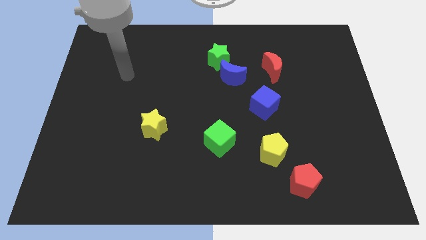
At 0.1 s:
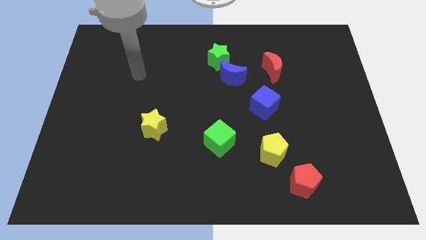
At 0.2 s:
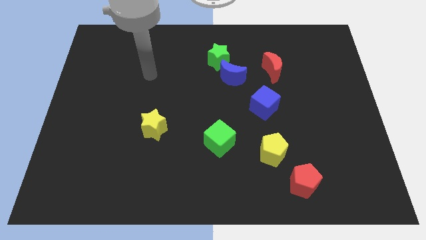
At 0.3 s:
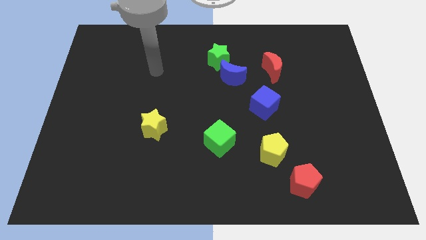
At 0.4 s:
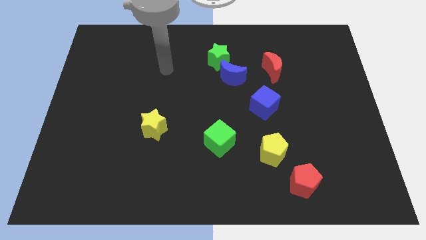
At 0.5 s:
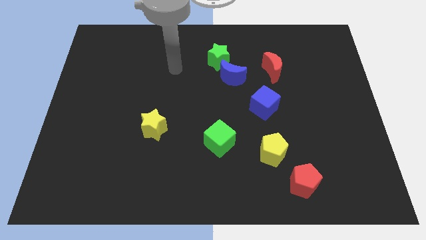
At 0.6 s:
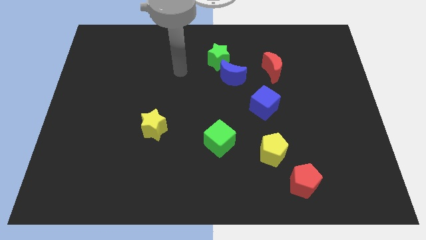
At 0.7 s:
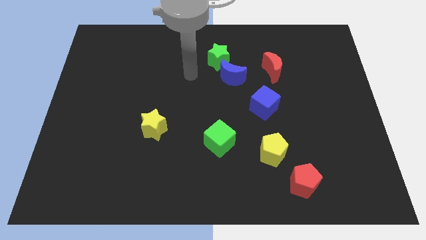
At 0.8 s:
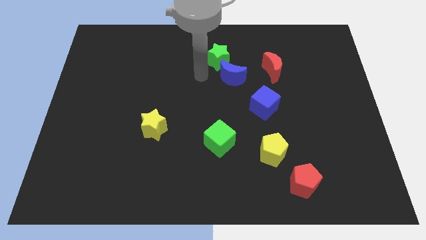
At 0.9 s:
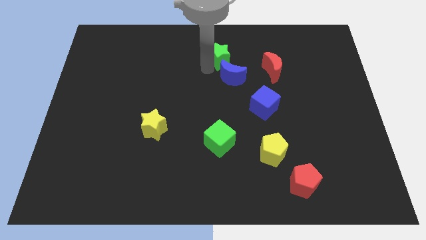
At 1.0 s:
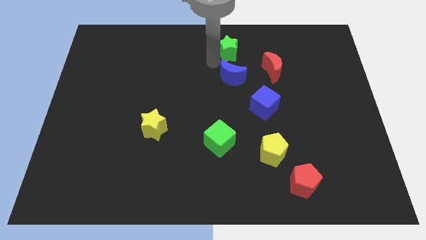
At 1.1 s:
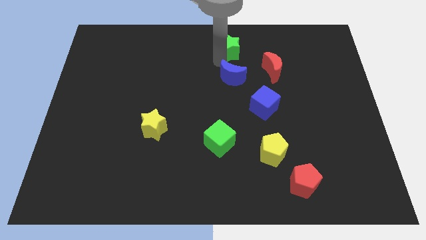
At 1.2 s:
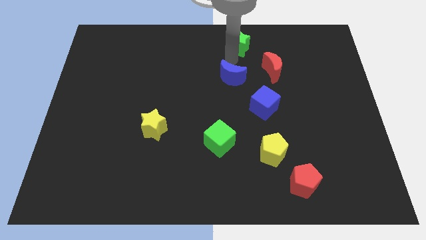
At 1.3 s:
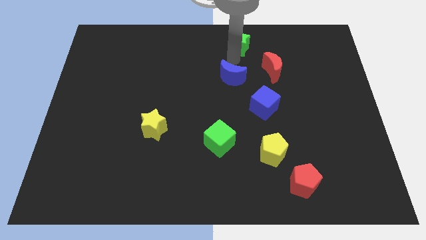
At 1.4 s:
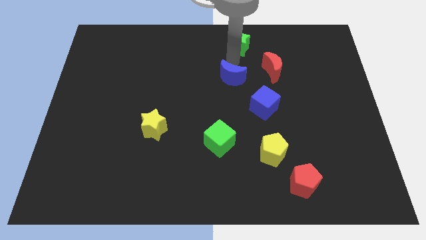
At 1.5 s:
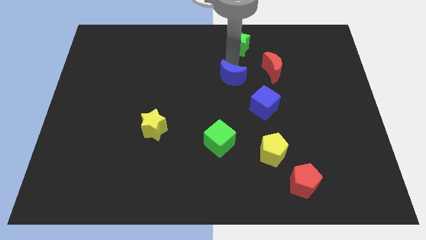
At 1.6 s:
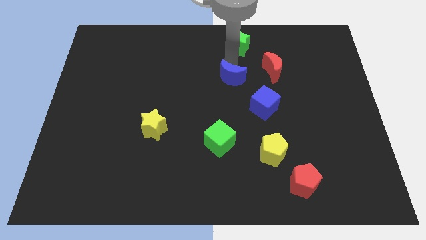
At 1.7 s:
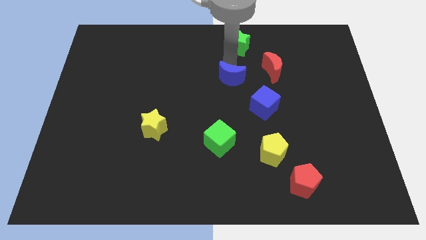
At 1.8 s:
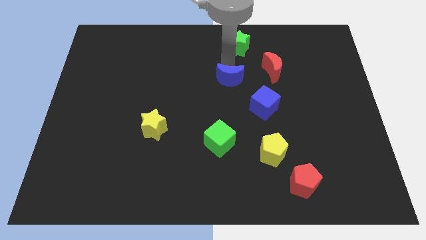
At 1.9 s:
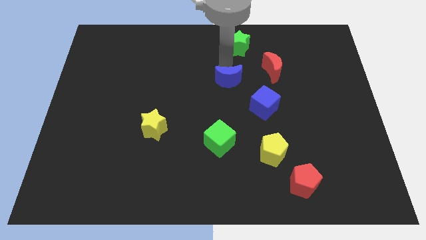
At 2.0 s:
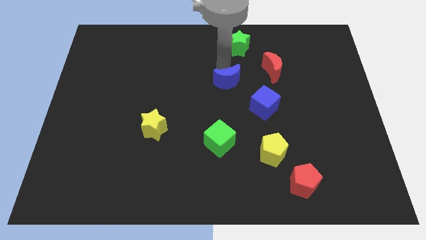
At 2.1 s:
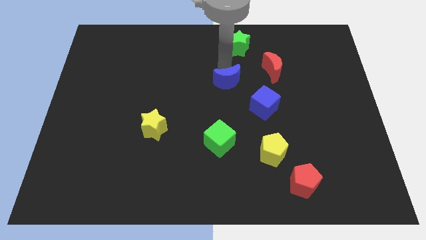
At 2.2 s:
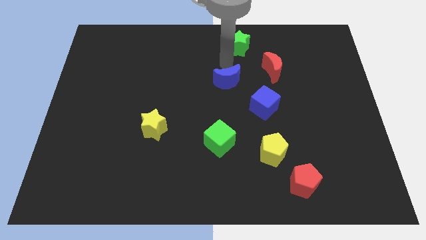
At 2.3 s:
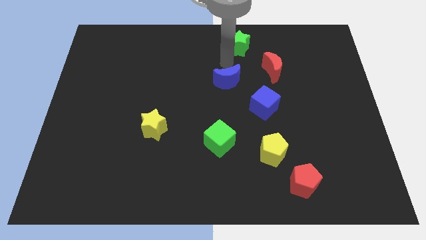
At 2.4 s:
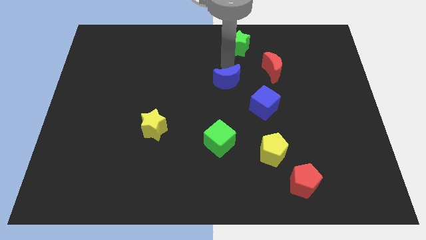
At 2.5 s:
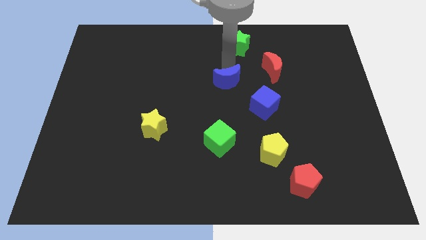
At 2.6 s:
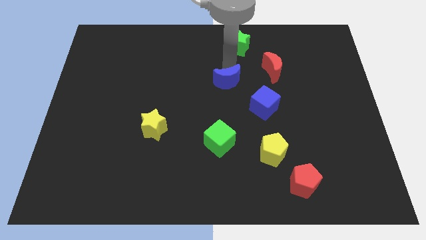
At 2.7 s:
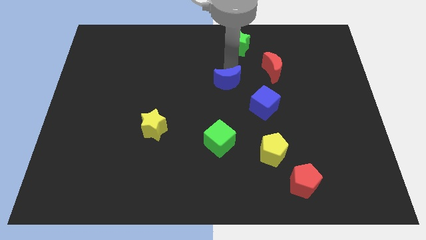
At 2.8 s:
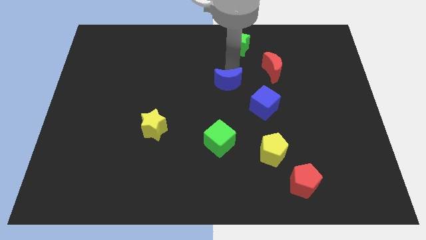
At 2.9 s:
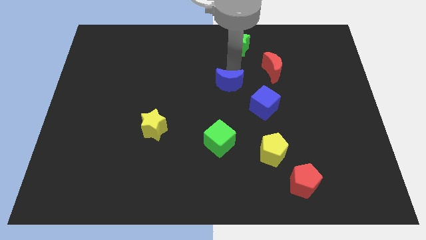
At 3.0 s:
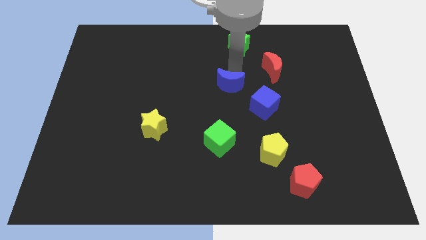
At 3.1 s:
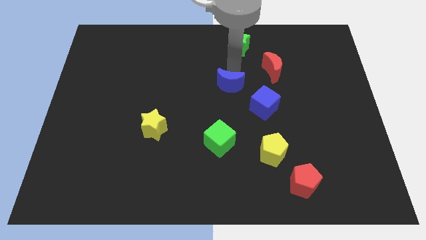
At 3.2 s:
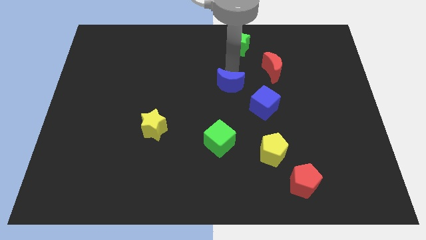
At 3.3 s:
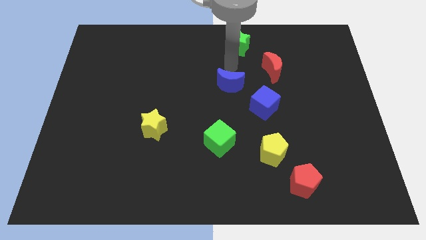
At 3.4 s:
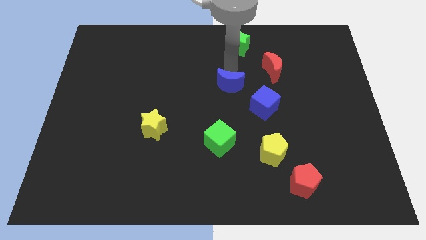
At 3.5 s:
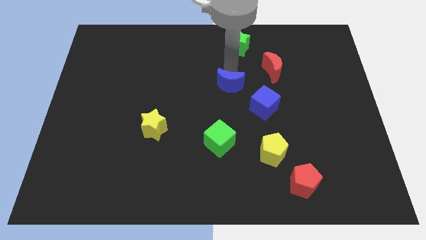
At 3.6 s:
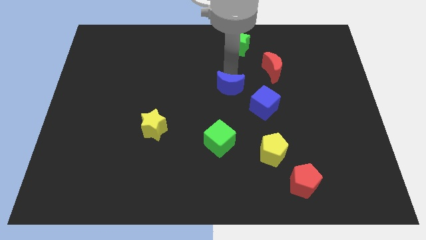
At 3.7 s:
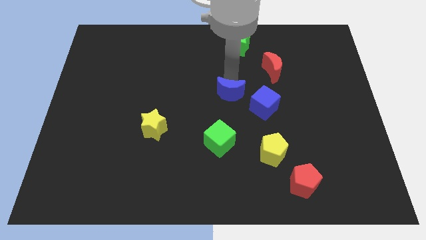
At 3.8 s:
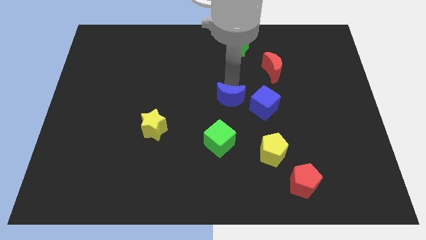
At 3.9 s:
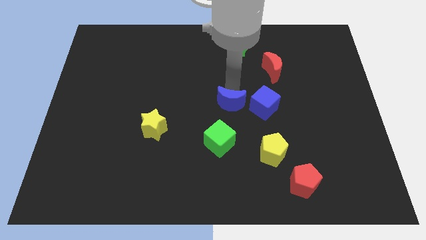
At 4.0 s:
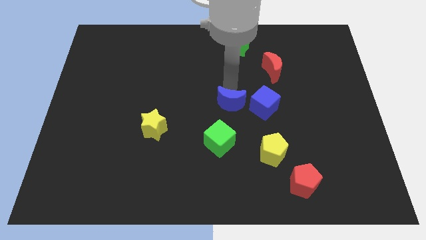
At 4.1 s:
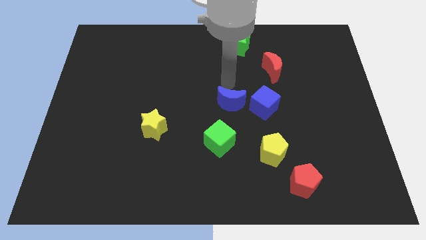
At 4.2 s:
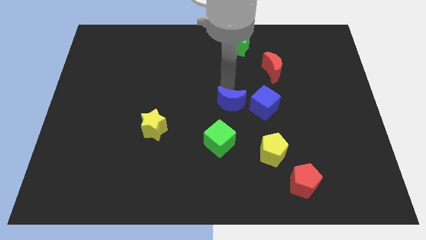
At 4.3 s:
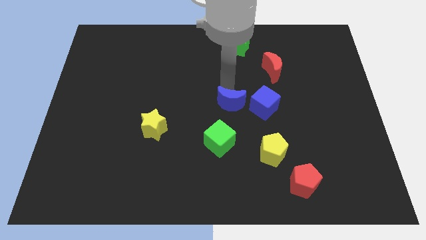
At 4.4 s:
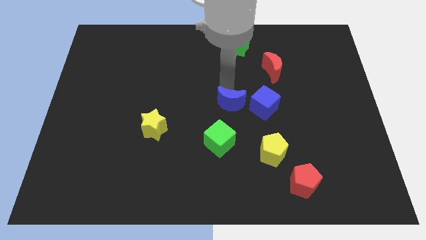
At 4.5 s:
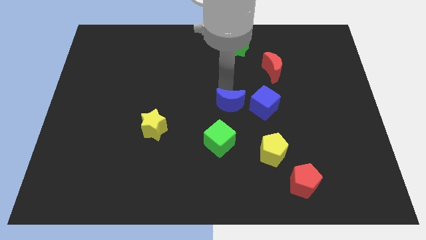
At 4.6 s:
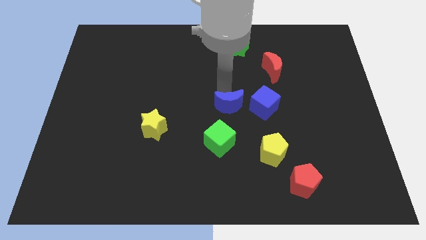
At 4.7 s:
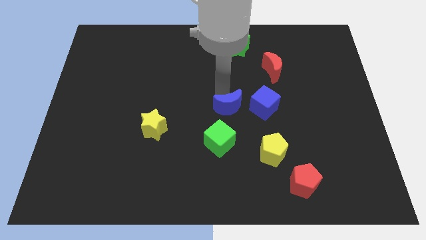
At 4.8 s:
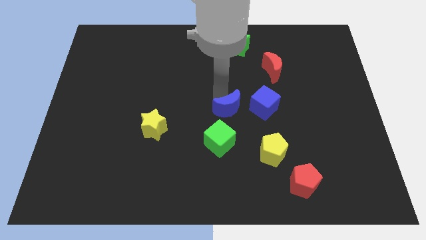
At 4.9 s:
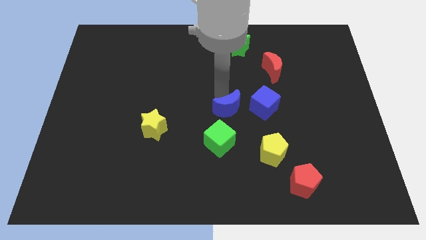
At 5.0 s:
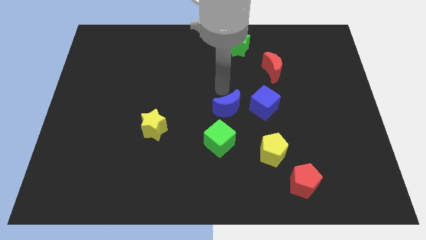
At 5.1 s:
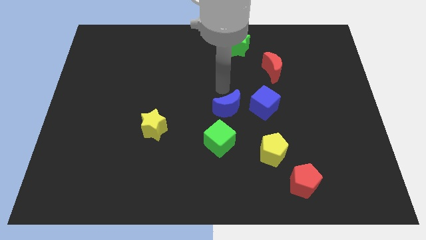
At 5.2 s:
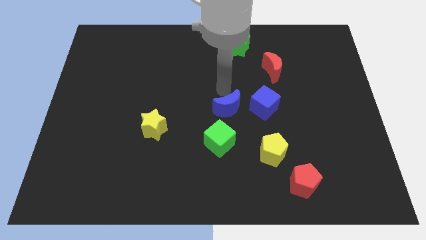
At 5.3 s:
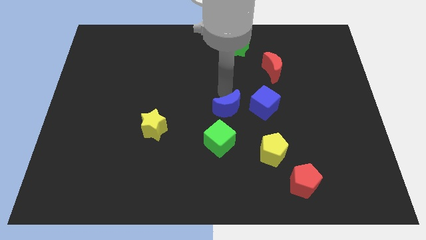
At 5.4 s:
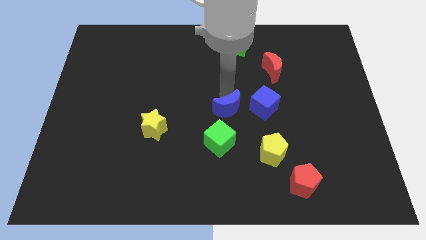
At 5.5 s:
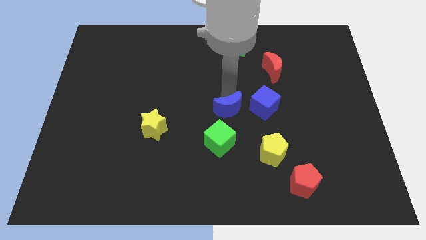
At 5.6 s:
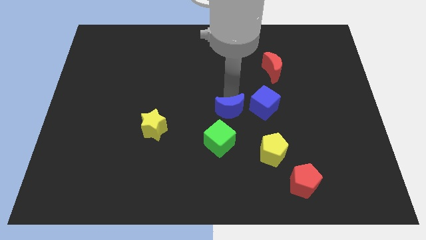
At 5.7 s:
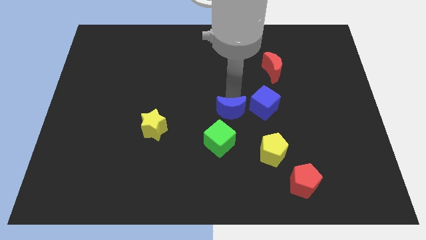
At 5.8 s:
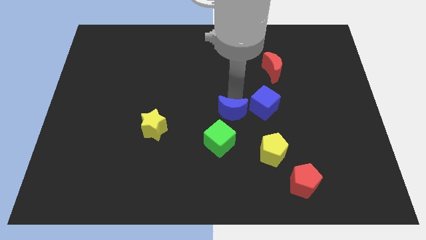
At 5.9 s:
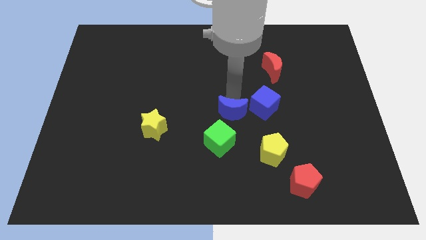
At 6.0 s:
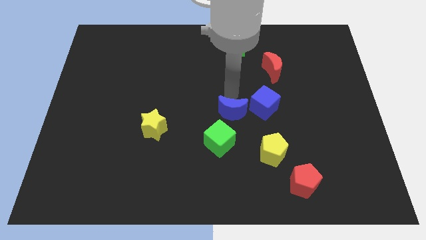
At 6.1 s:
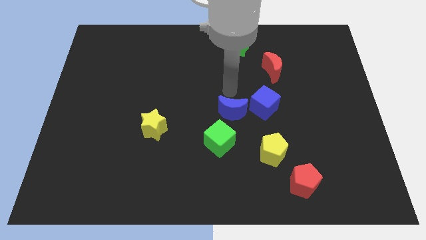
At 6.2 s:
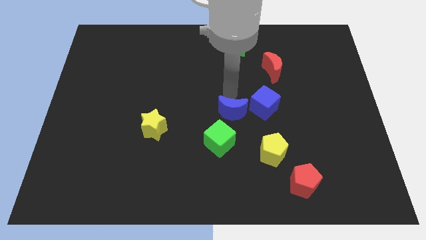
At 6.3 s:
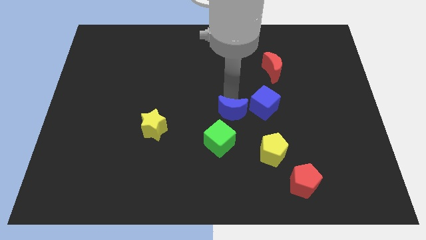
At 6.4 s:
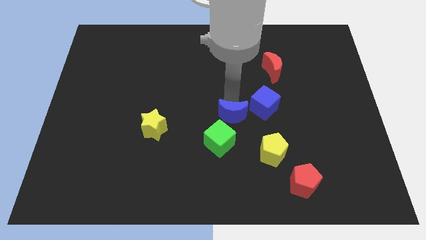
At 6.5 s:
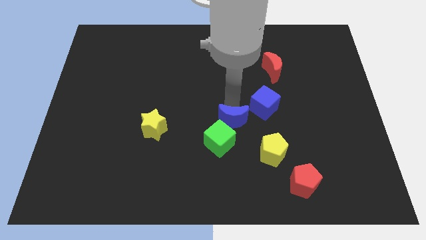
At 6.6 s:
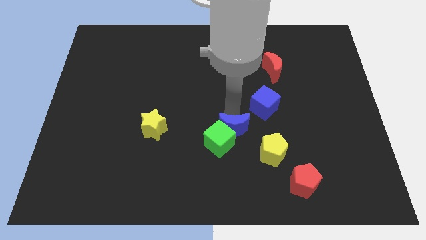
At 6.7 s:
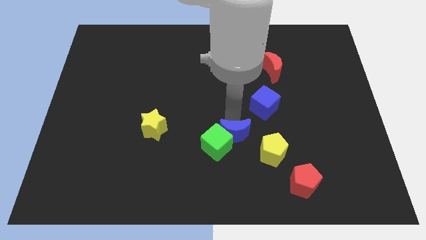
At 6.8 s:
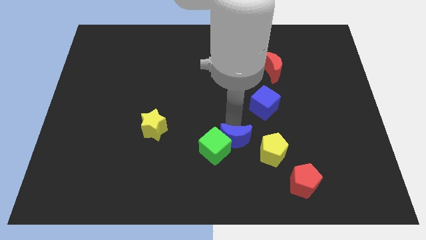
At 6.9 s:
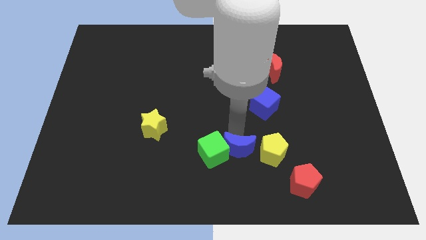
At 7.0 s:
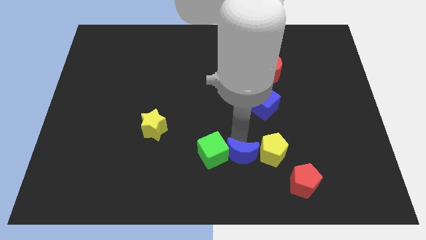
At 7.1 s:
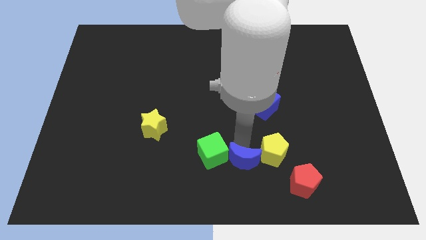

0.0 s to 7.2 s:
push the blue moon to the bottom side
